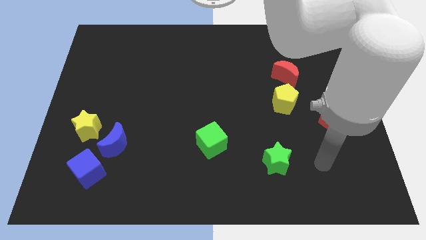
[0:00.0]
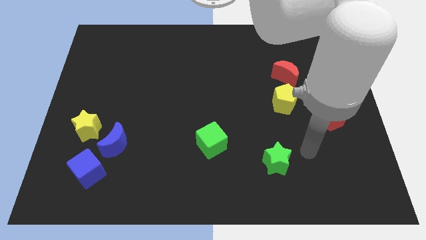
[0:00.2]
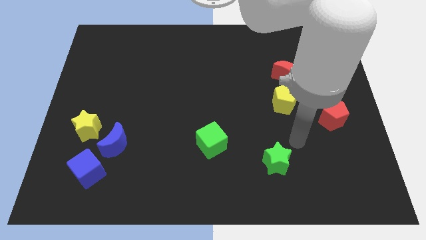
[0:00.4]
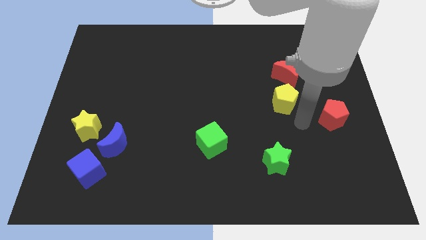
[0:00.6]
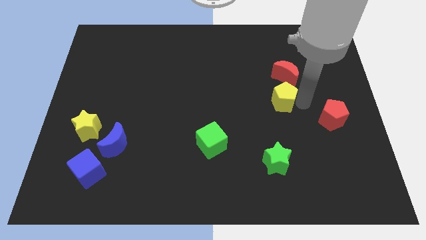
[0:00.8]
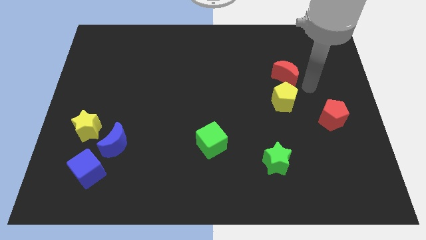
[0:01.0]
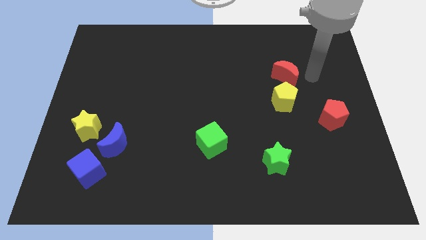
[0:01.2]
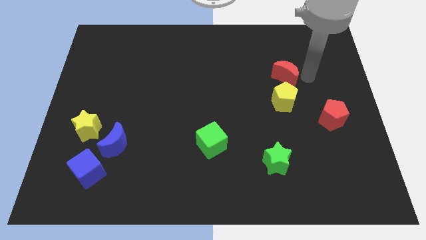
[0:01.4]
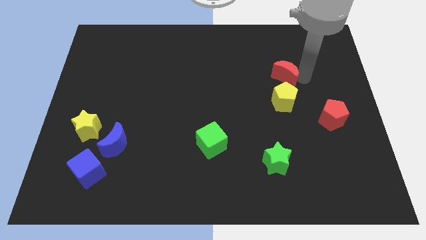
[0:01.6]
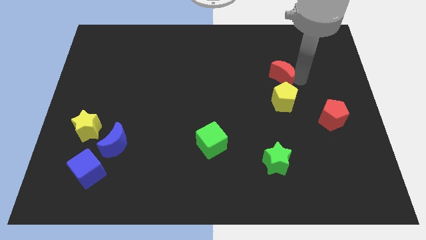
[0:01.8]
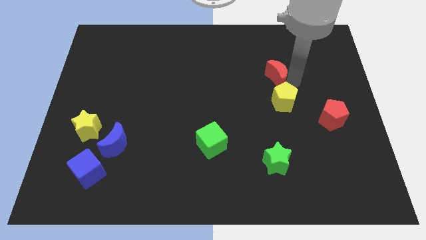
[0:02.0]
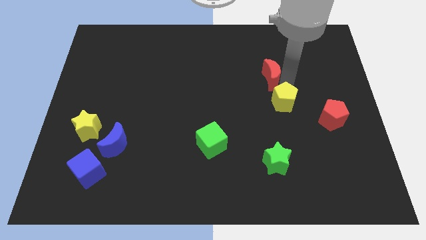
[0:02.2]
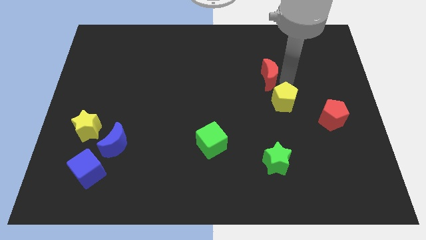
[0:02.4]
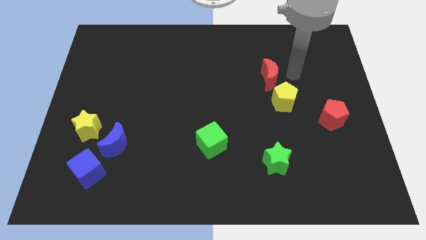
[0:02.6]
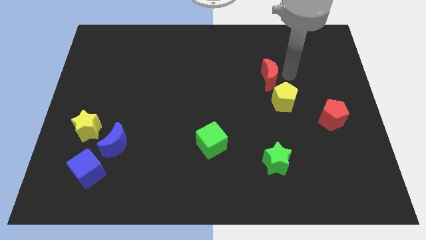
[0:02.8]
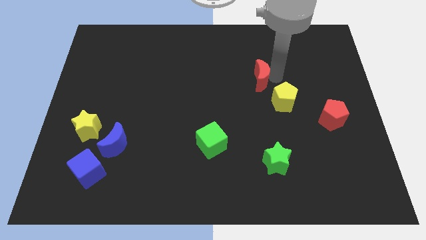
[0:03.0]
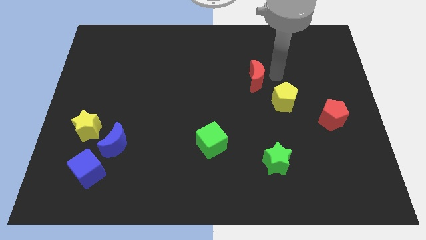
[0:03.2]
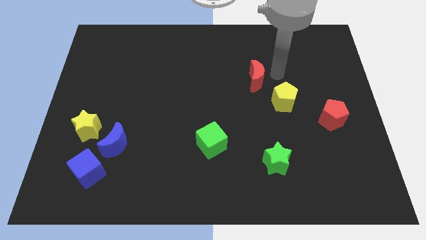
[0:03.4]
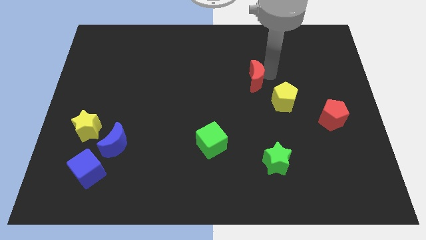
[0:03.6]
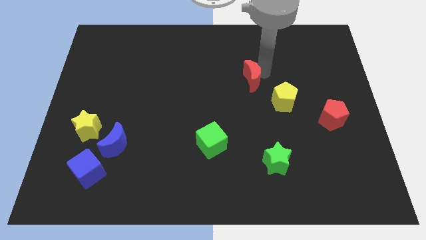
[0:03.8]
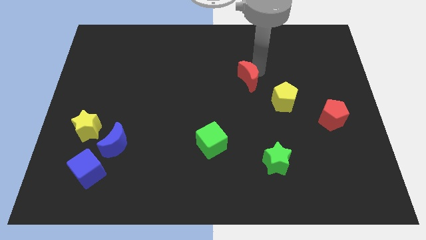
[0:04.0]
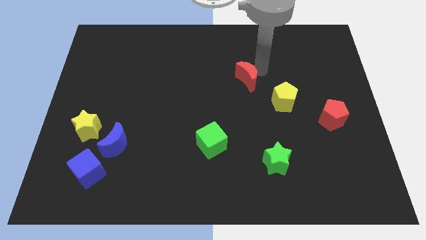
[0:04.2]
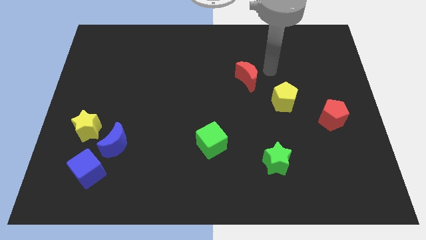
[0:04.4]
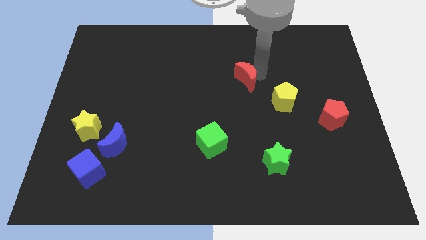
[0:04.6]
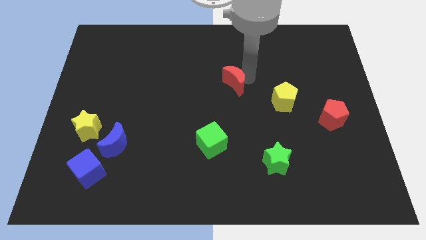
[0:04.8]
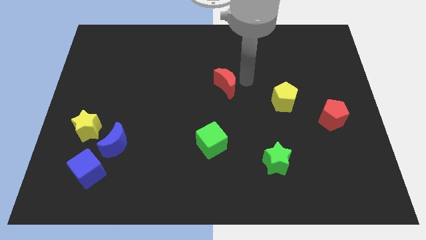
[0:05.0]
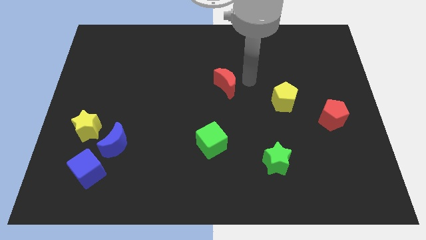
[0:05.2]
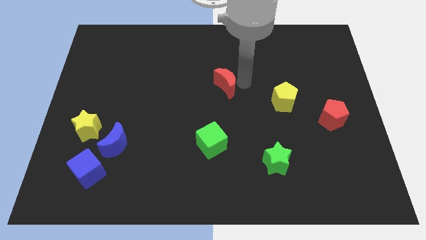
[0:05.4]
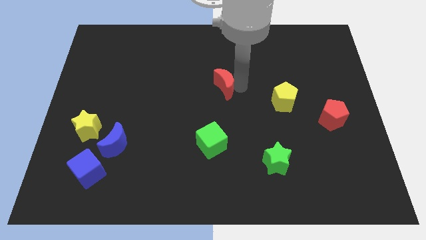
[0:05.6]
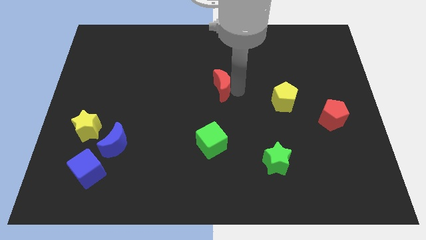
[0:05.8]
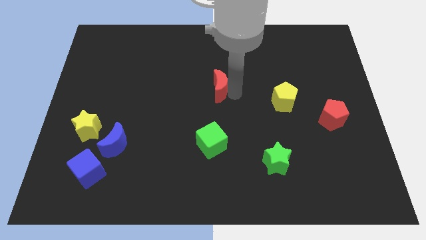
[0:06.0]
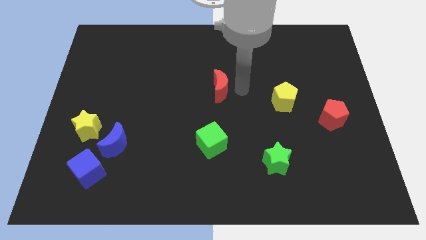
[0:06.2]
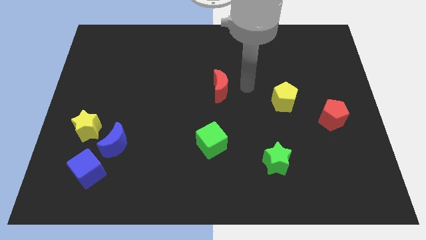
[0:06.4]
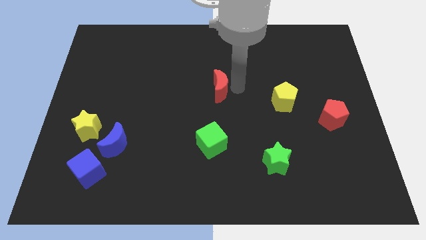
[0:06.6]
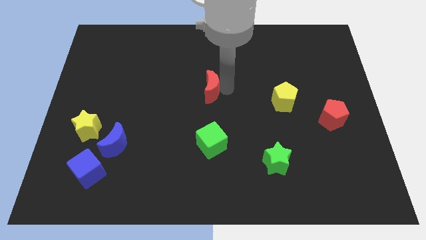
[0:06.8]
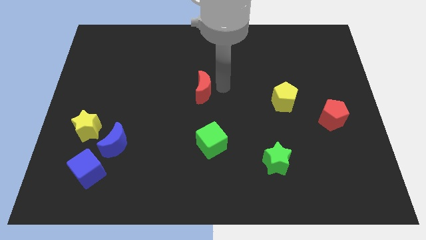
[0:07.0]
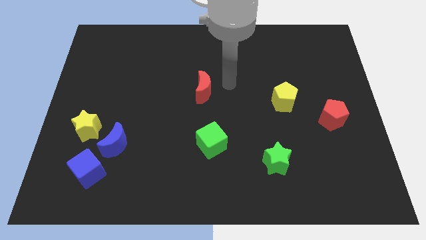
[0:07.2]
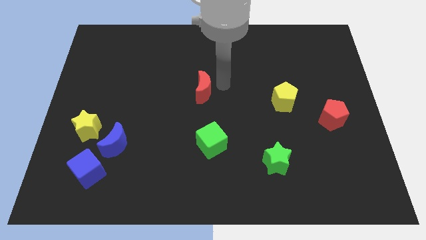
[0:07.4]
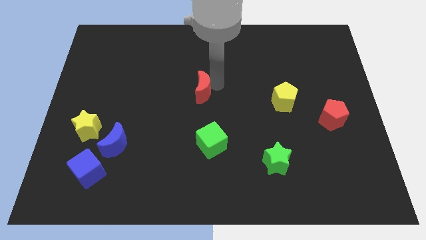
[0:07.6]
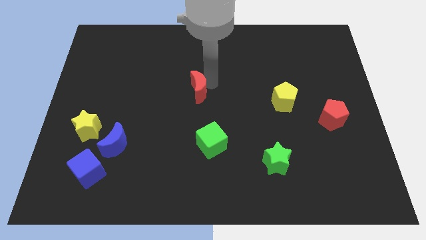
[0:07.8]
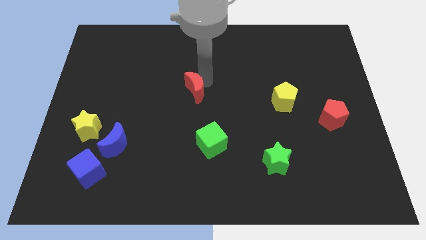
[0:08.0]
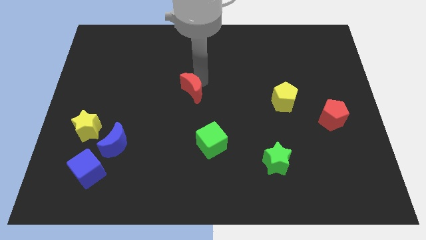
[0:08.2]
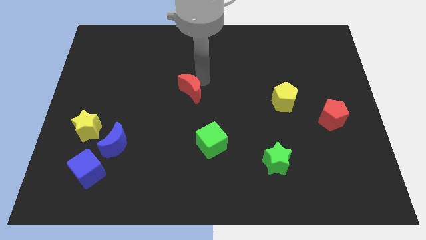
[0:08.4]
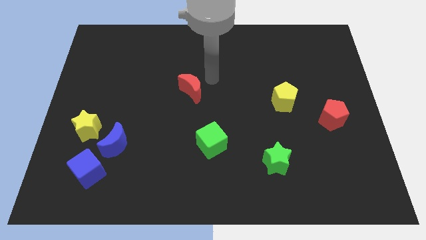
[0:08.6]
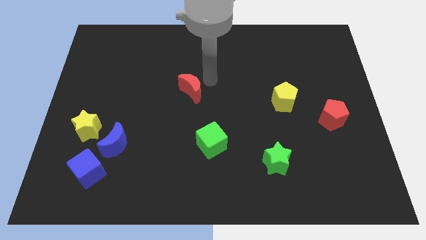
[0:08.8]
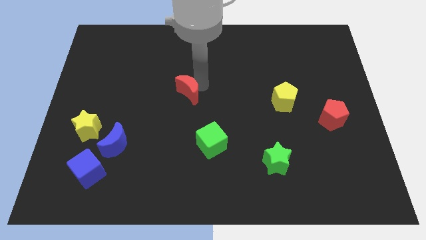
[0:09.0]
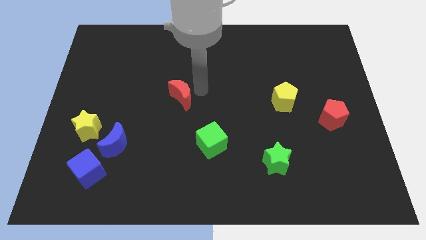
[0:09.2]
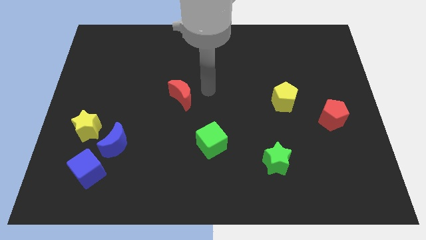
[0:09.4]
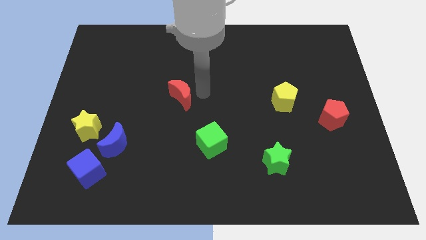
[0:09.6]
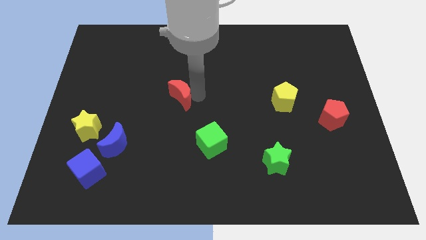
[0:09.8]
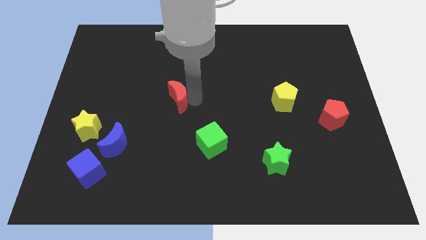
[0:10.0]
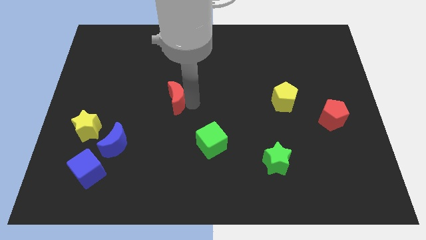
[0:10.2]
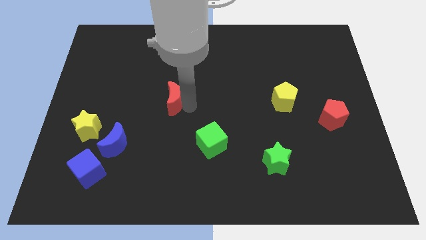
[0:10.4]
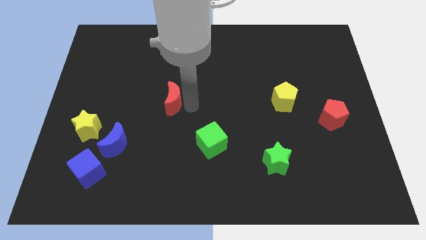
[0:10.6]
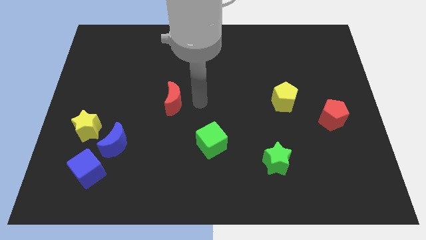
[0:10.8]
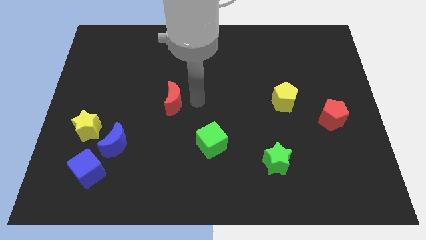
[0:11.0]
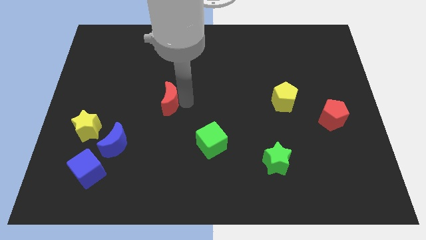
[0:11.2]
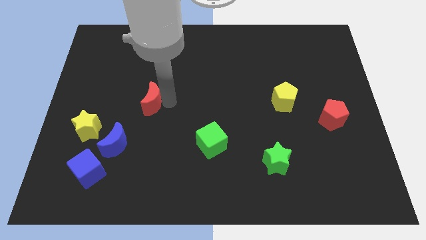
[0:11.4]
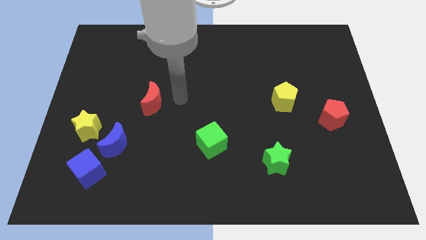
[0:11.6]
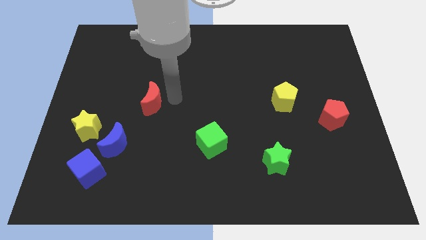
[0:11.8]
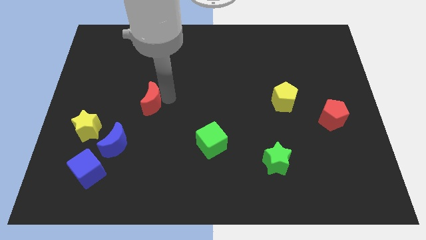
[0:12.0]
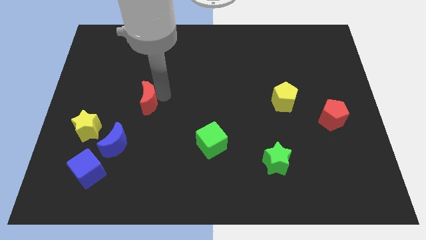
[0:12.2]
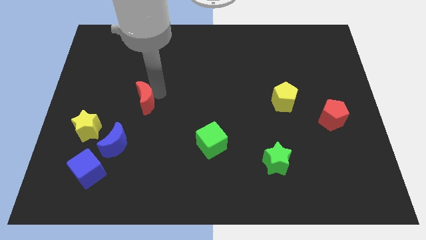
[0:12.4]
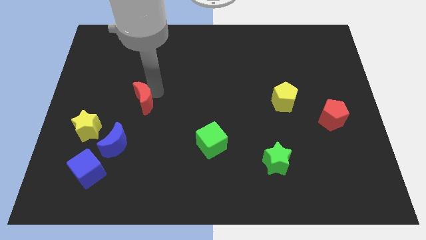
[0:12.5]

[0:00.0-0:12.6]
push the red moon to the top of the blue moon

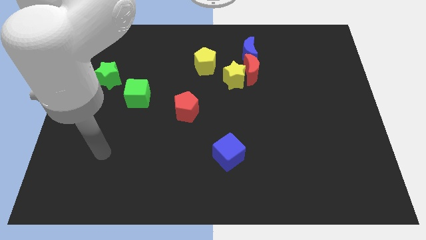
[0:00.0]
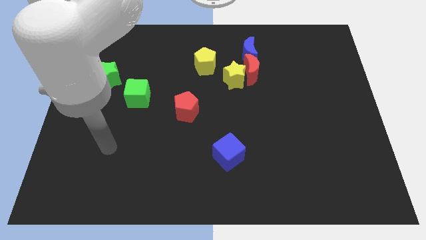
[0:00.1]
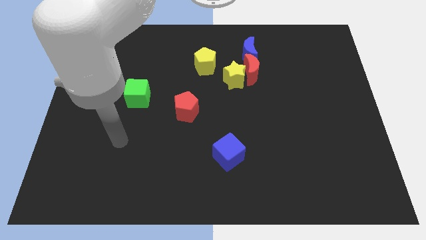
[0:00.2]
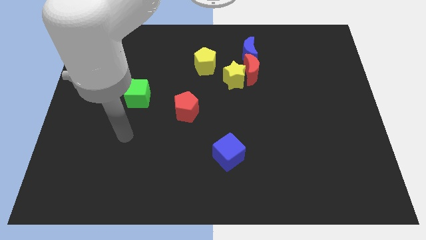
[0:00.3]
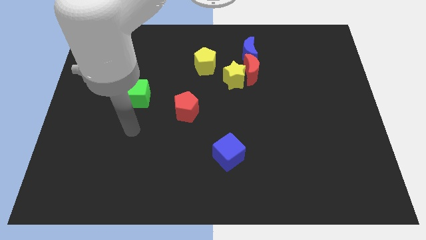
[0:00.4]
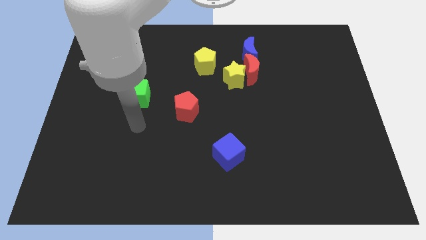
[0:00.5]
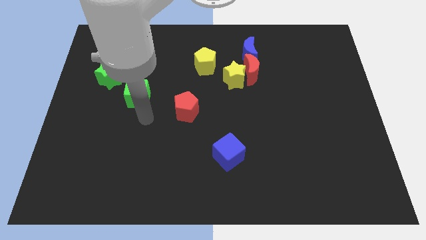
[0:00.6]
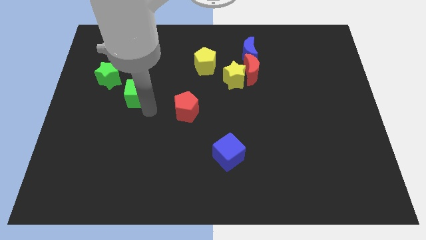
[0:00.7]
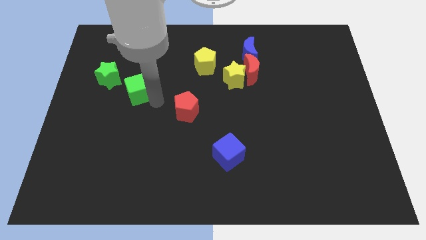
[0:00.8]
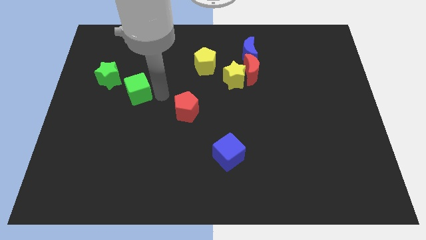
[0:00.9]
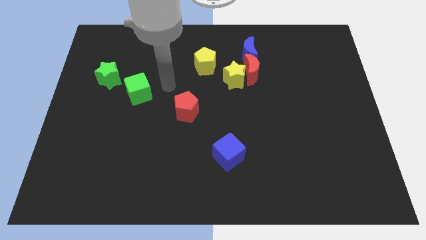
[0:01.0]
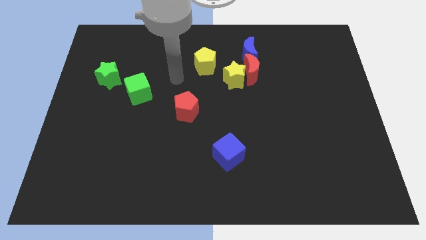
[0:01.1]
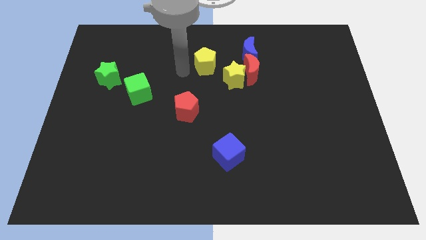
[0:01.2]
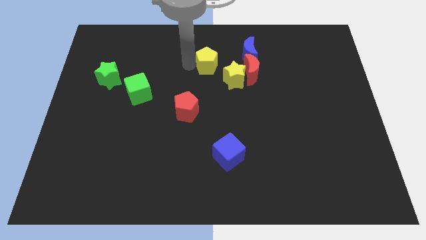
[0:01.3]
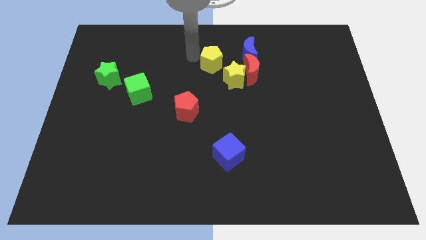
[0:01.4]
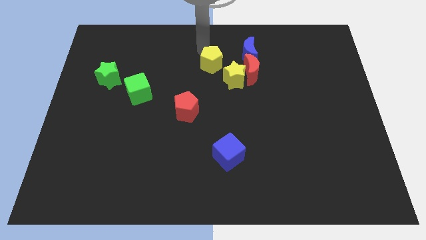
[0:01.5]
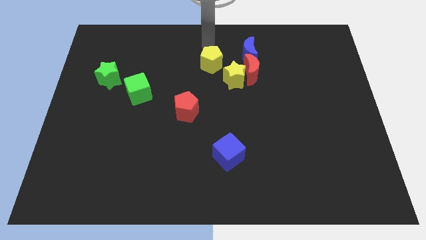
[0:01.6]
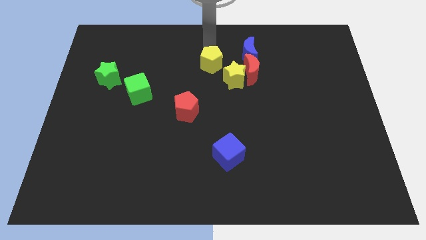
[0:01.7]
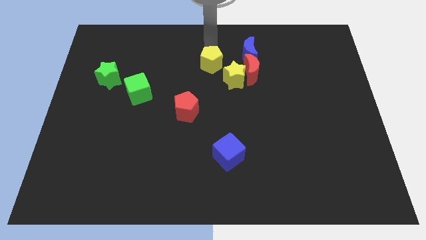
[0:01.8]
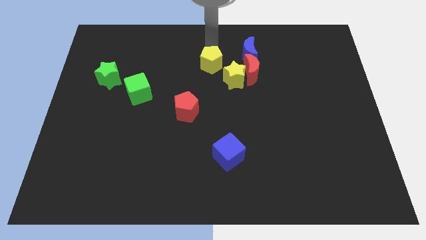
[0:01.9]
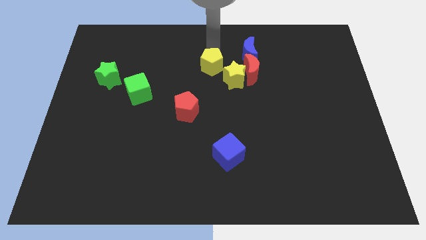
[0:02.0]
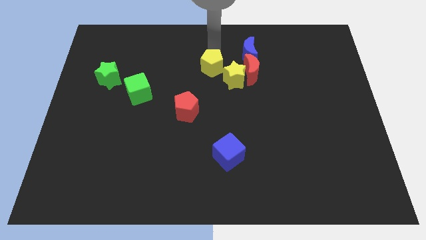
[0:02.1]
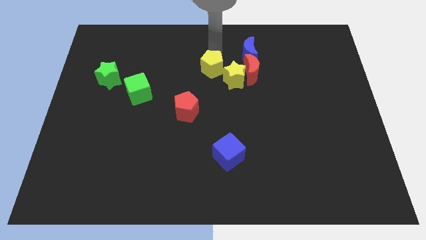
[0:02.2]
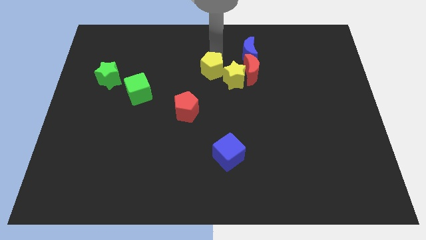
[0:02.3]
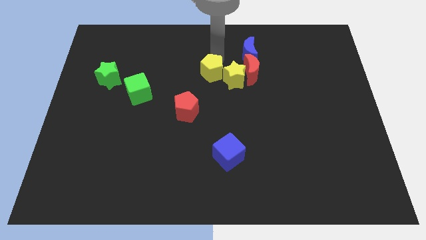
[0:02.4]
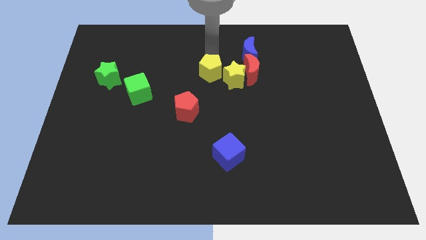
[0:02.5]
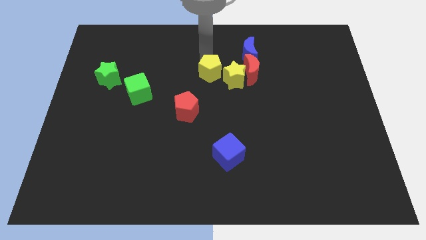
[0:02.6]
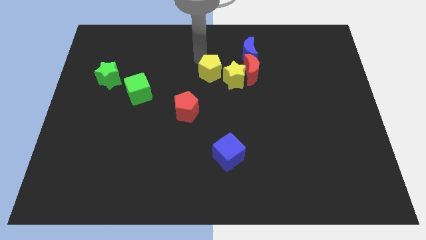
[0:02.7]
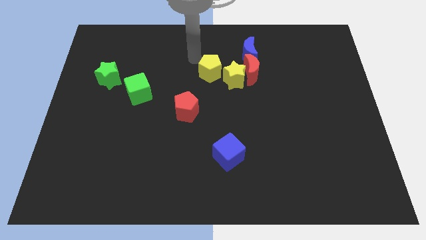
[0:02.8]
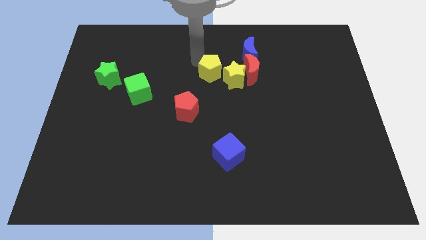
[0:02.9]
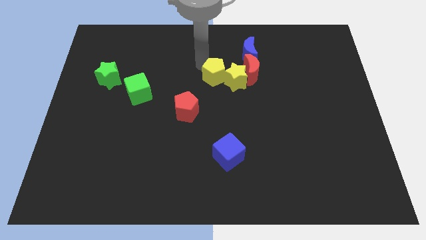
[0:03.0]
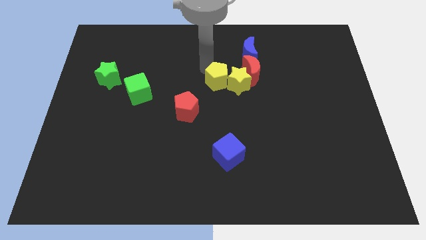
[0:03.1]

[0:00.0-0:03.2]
slide the yellow pentagon to the bottom left side of the red moon
